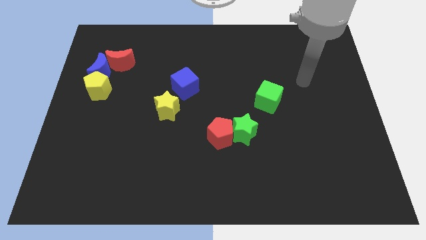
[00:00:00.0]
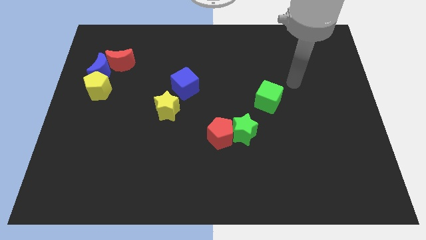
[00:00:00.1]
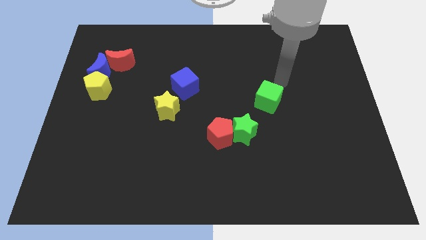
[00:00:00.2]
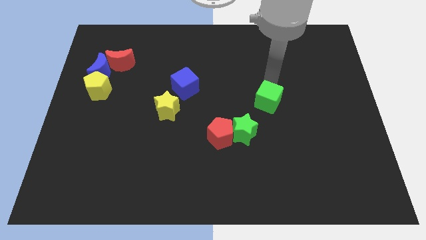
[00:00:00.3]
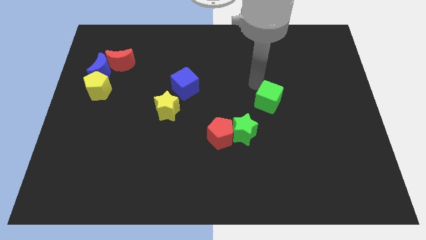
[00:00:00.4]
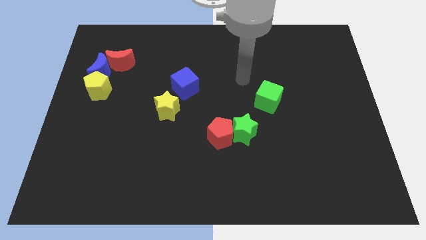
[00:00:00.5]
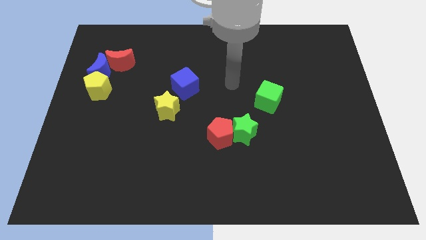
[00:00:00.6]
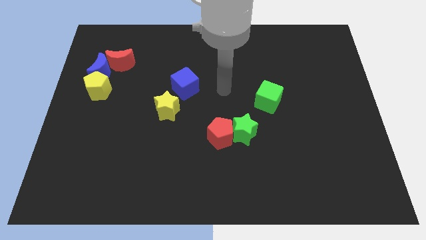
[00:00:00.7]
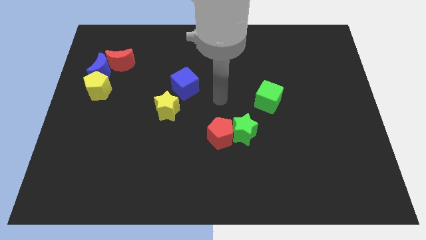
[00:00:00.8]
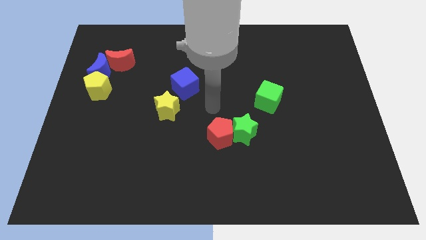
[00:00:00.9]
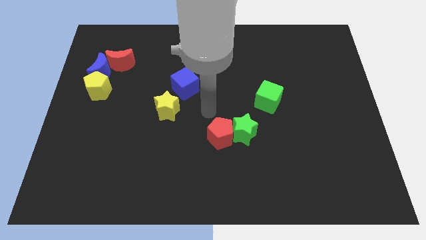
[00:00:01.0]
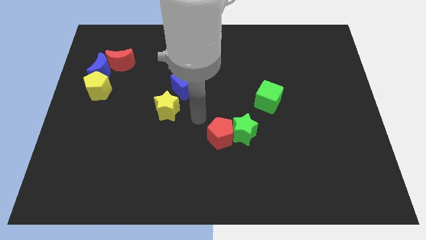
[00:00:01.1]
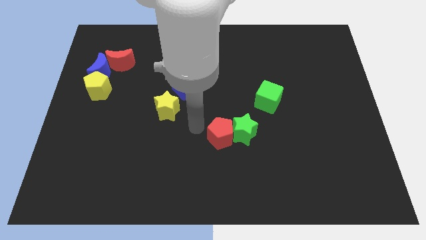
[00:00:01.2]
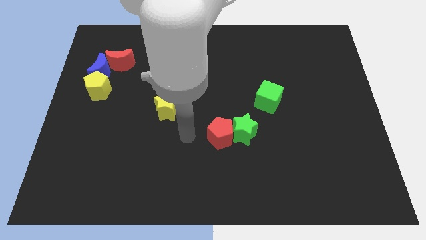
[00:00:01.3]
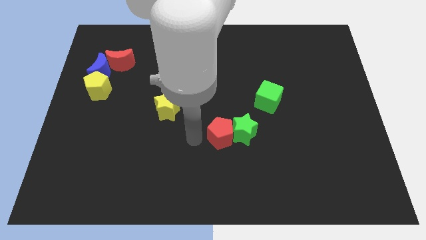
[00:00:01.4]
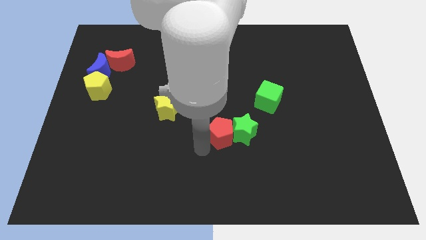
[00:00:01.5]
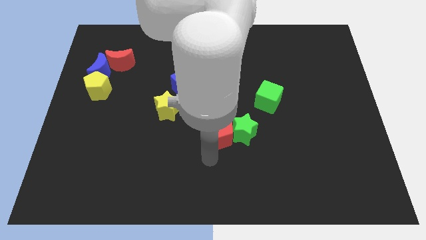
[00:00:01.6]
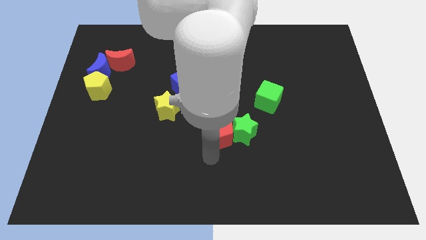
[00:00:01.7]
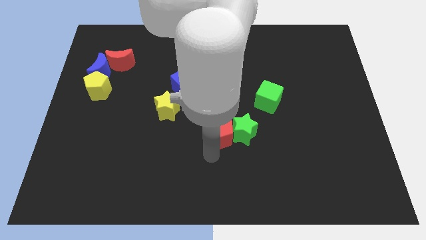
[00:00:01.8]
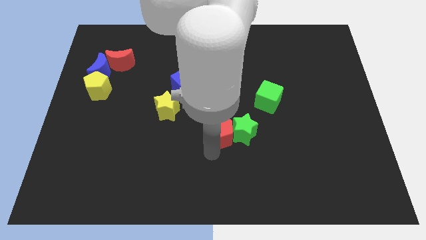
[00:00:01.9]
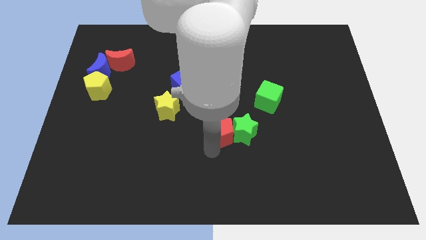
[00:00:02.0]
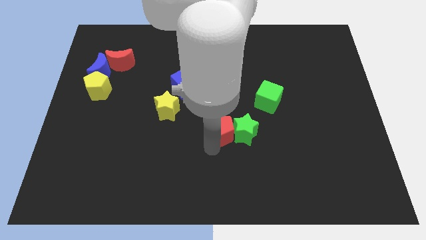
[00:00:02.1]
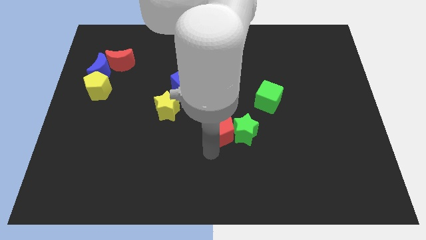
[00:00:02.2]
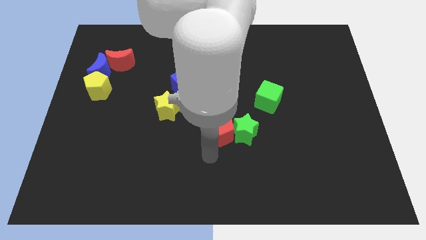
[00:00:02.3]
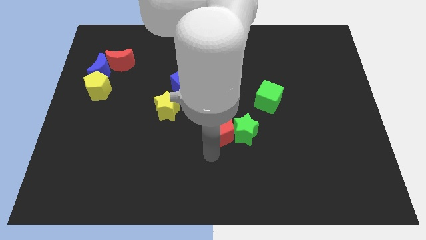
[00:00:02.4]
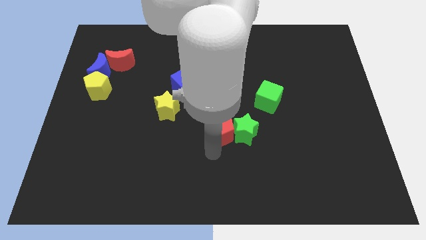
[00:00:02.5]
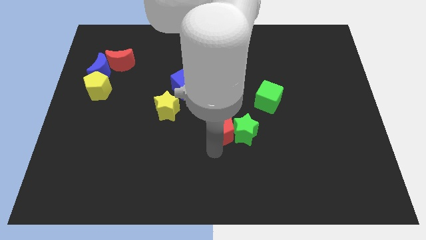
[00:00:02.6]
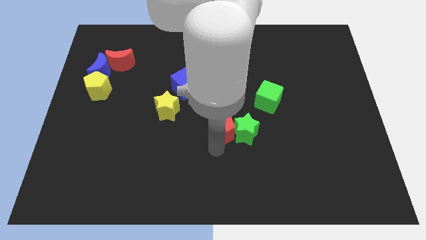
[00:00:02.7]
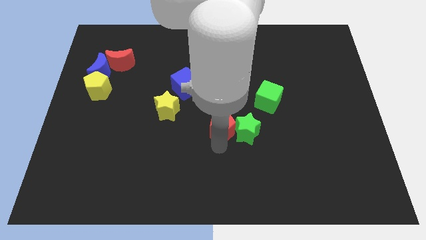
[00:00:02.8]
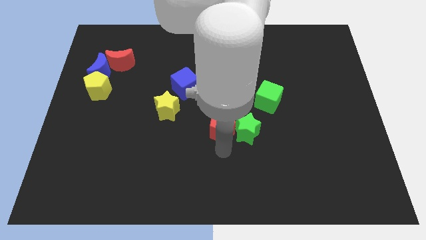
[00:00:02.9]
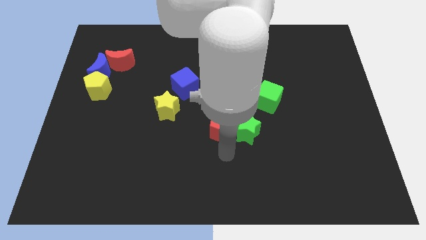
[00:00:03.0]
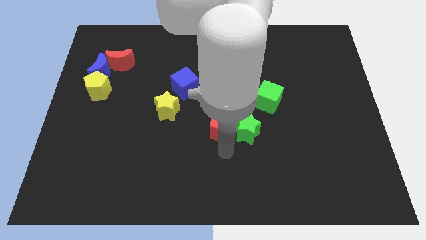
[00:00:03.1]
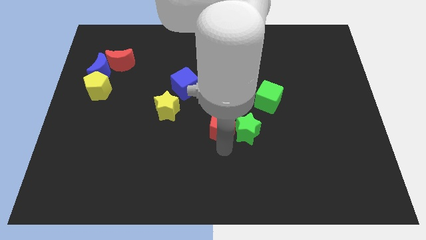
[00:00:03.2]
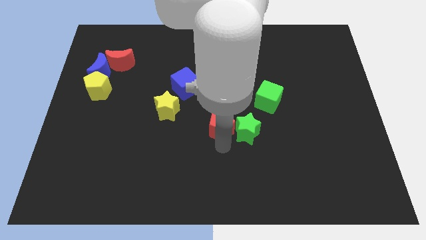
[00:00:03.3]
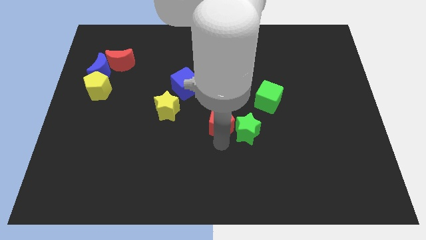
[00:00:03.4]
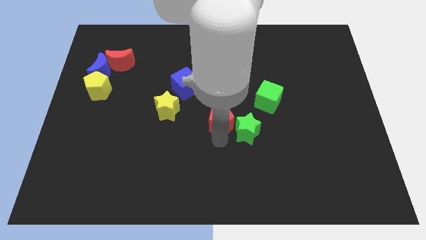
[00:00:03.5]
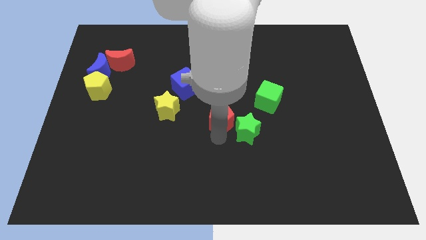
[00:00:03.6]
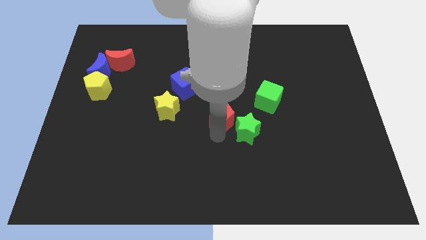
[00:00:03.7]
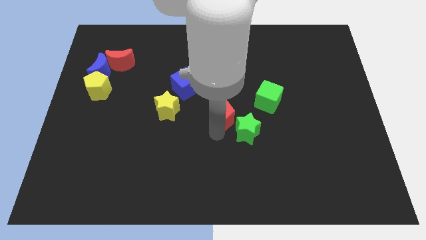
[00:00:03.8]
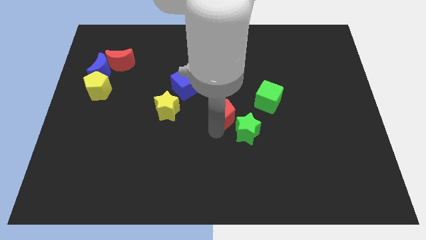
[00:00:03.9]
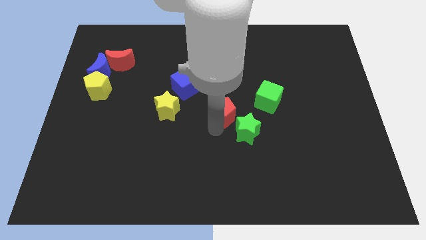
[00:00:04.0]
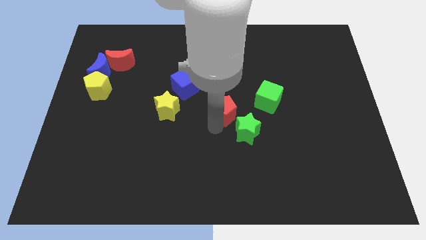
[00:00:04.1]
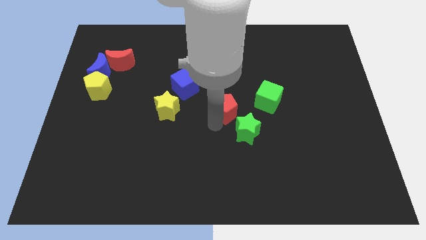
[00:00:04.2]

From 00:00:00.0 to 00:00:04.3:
slightly slide the red pentagon upwards

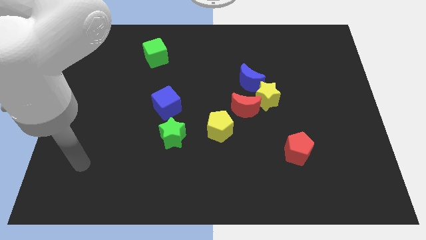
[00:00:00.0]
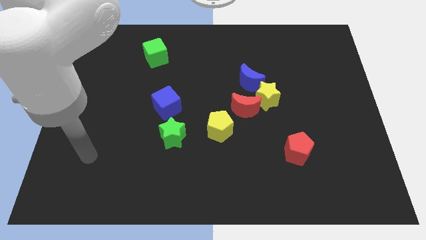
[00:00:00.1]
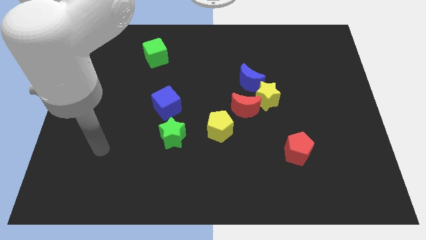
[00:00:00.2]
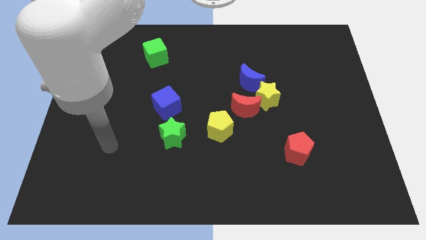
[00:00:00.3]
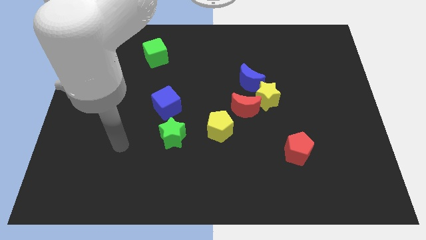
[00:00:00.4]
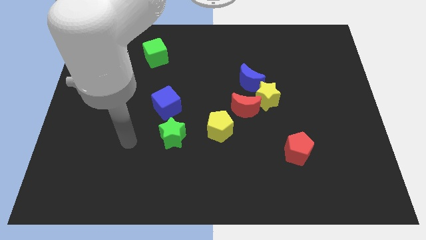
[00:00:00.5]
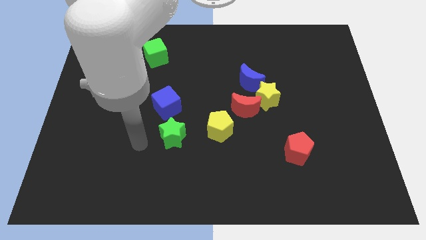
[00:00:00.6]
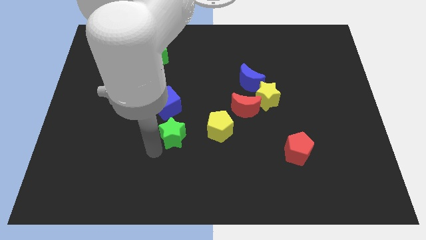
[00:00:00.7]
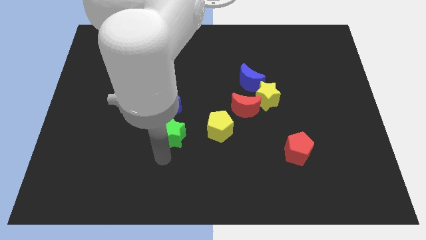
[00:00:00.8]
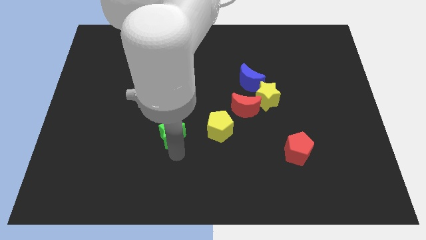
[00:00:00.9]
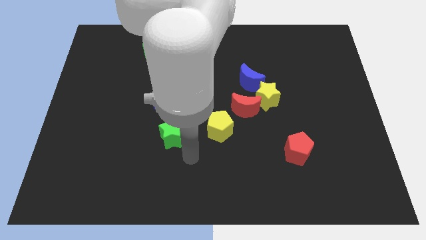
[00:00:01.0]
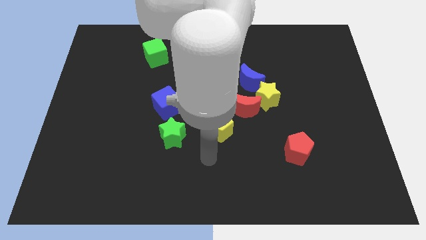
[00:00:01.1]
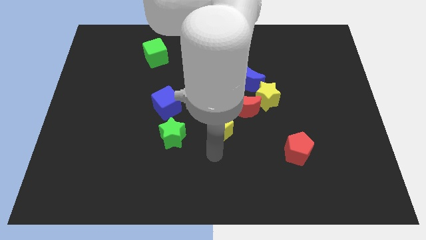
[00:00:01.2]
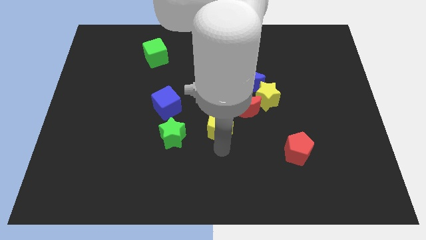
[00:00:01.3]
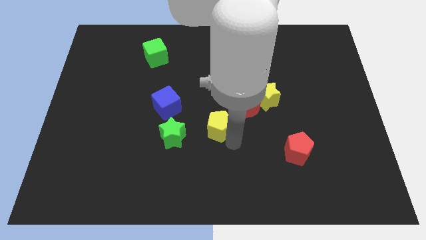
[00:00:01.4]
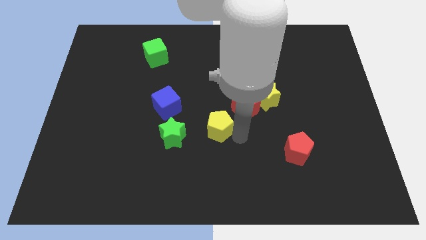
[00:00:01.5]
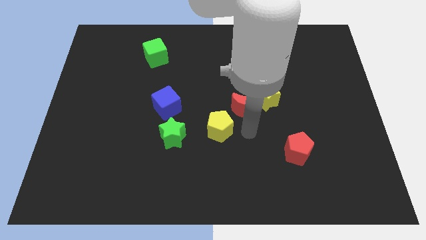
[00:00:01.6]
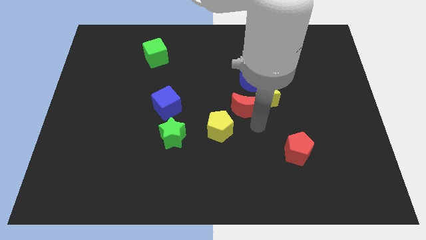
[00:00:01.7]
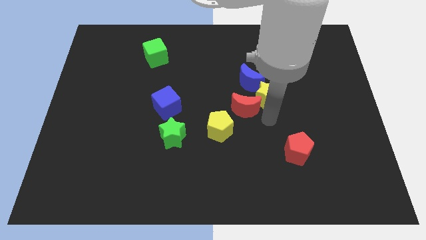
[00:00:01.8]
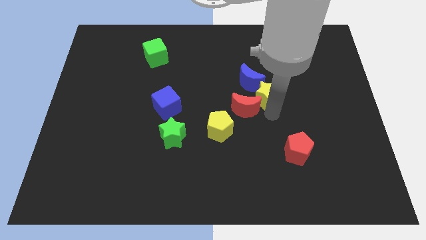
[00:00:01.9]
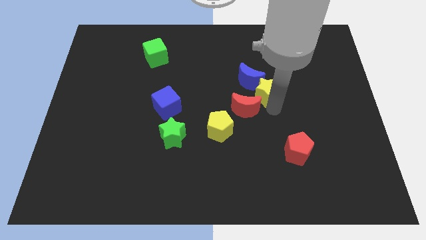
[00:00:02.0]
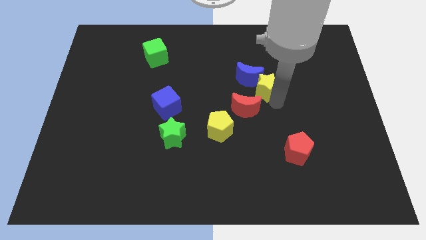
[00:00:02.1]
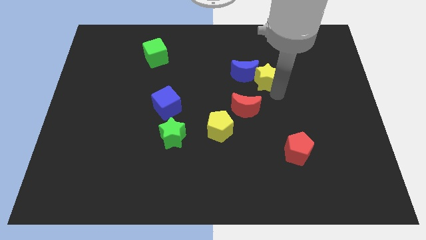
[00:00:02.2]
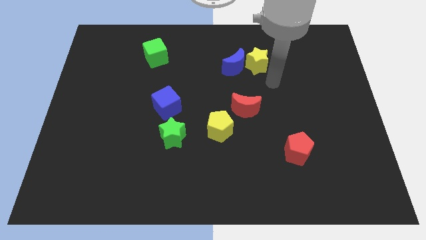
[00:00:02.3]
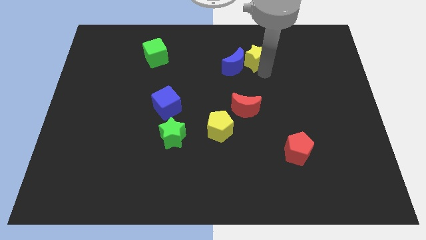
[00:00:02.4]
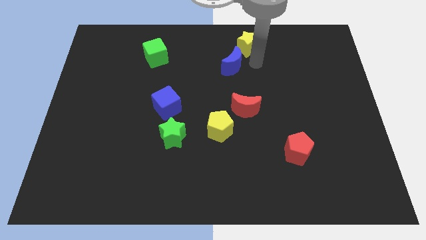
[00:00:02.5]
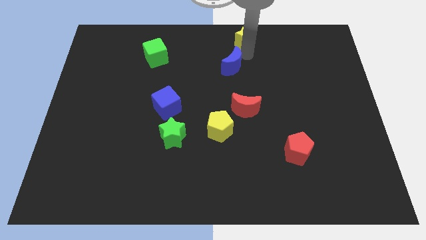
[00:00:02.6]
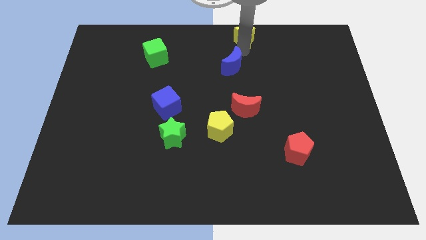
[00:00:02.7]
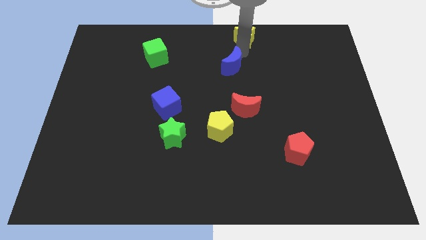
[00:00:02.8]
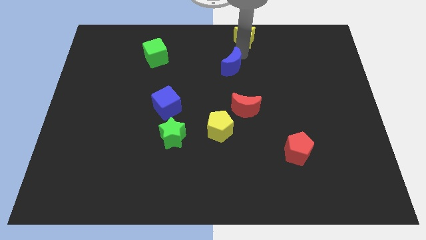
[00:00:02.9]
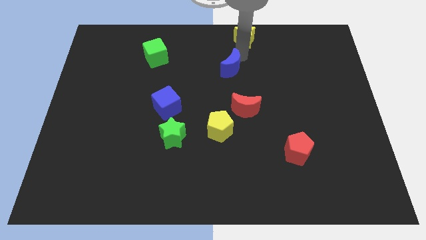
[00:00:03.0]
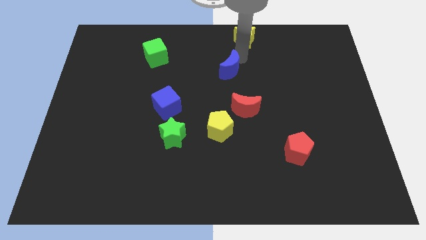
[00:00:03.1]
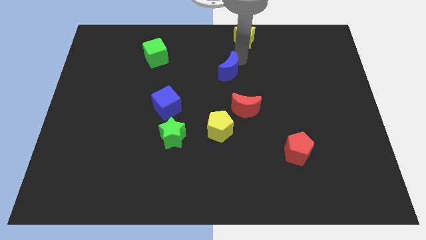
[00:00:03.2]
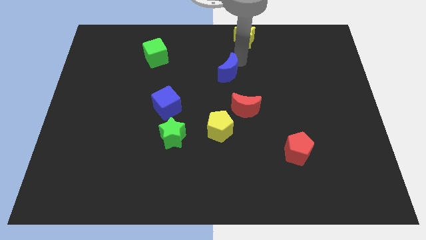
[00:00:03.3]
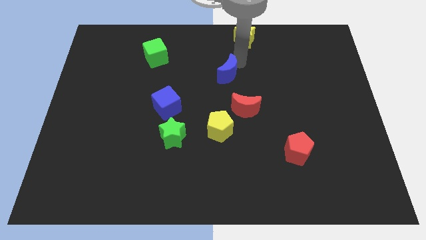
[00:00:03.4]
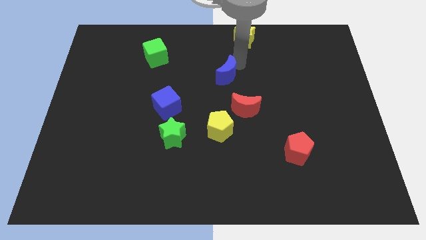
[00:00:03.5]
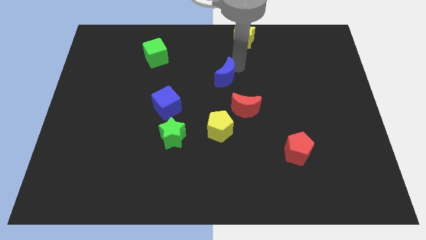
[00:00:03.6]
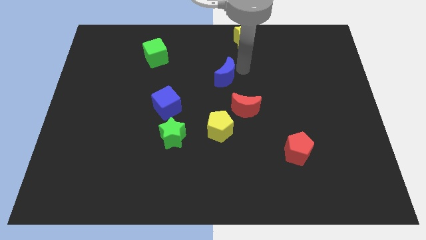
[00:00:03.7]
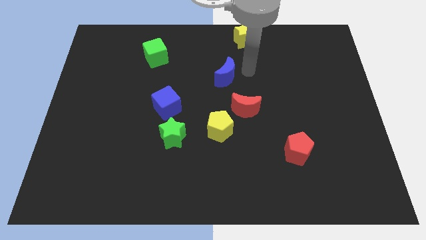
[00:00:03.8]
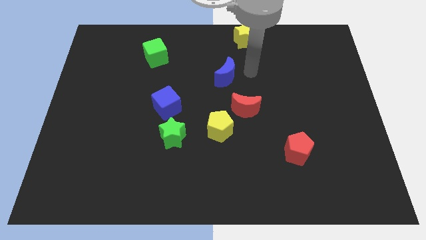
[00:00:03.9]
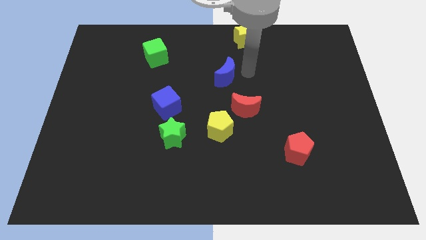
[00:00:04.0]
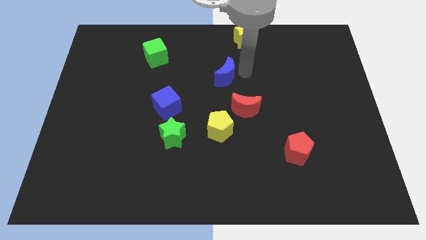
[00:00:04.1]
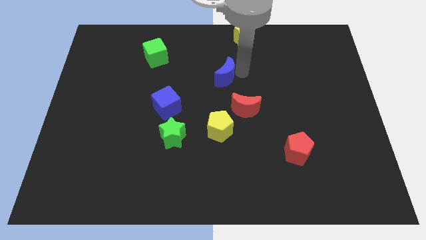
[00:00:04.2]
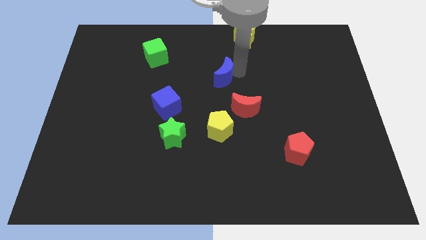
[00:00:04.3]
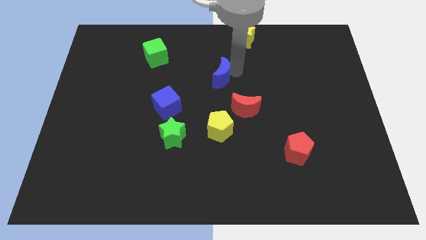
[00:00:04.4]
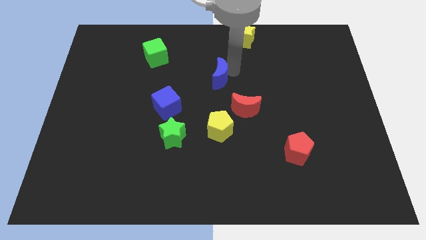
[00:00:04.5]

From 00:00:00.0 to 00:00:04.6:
slightly slide the blue moon left
